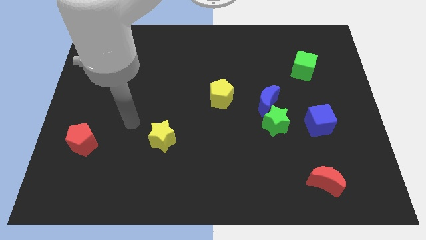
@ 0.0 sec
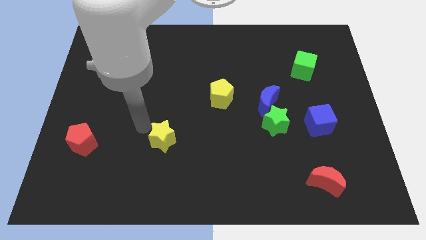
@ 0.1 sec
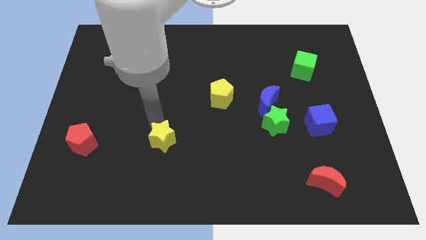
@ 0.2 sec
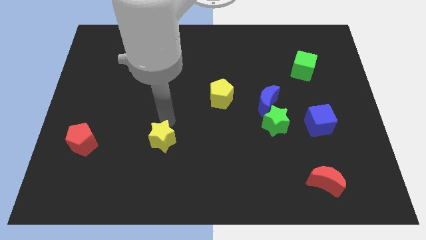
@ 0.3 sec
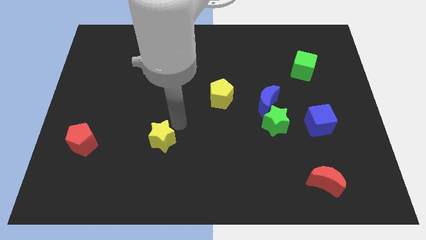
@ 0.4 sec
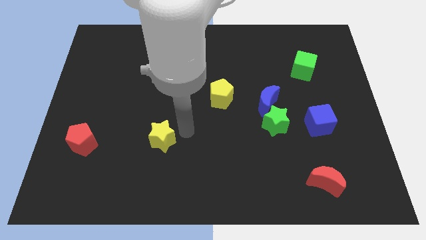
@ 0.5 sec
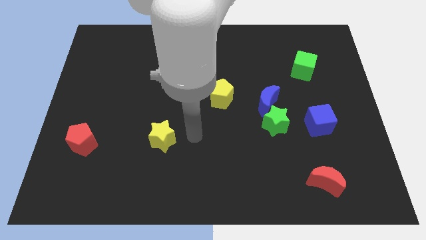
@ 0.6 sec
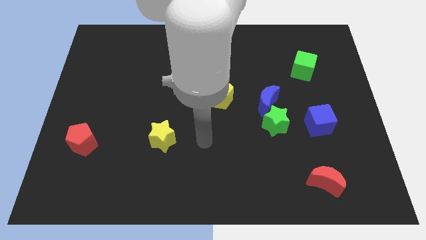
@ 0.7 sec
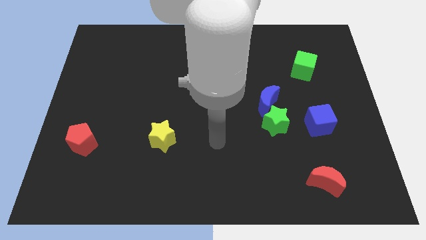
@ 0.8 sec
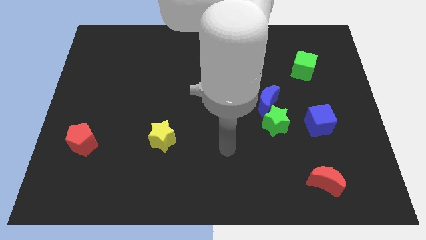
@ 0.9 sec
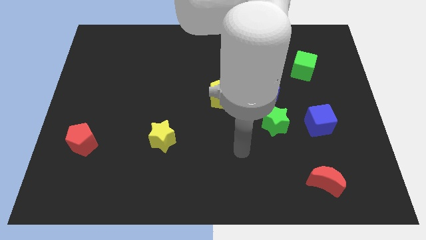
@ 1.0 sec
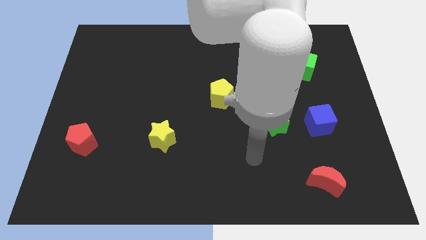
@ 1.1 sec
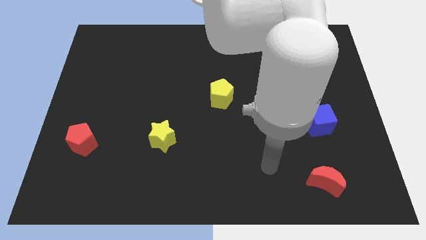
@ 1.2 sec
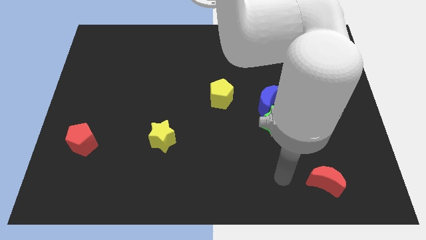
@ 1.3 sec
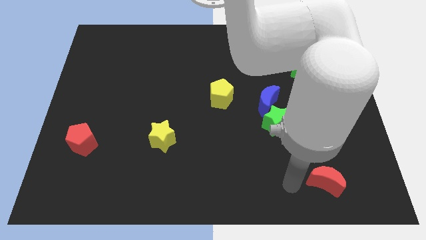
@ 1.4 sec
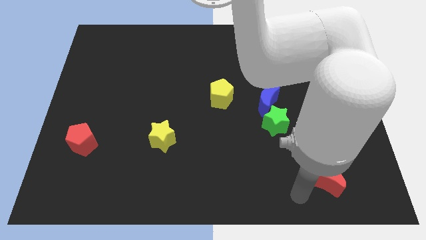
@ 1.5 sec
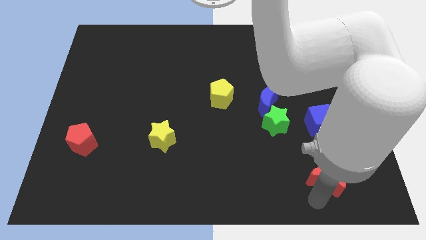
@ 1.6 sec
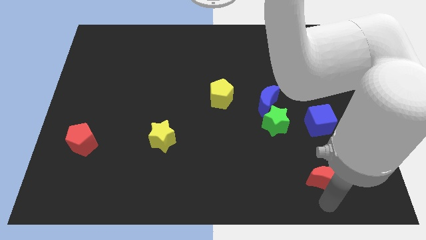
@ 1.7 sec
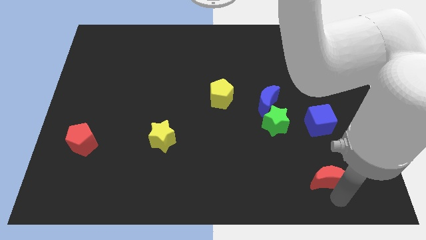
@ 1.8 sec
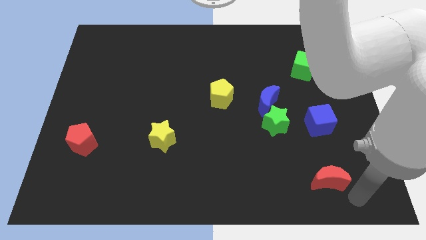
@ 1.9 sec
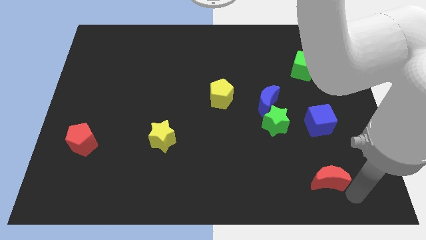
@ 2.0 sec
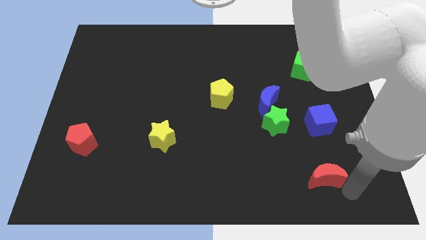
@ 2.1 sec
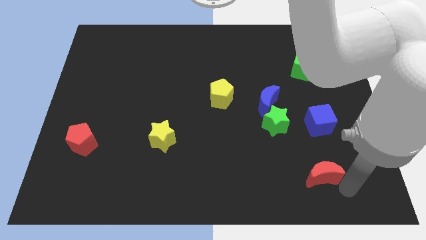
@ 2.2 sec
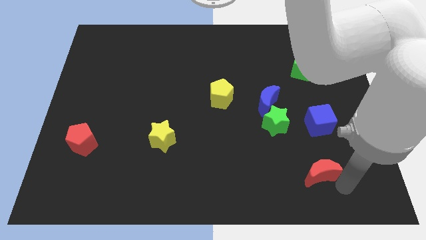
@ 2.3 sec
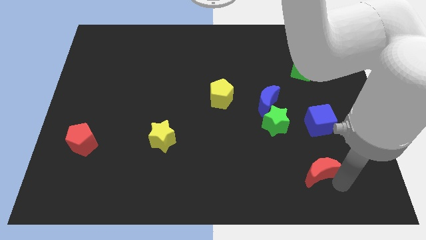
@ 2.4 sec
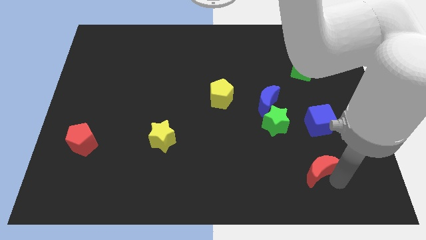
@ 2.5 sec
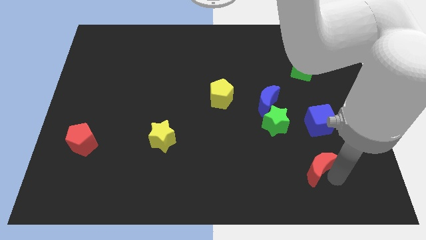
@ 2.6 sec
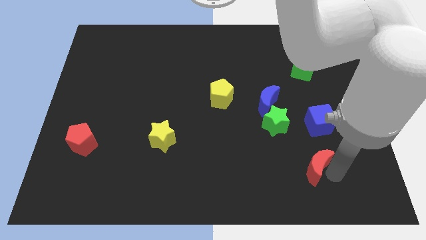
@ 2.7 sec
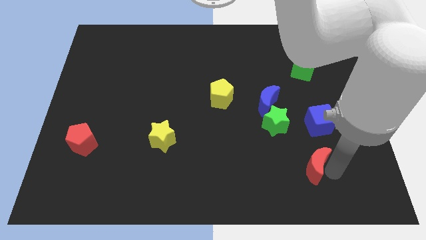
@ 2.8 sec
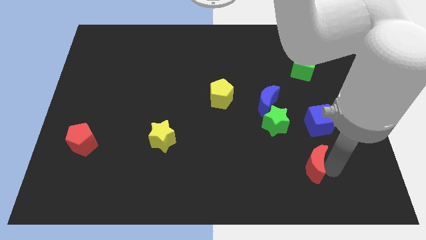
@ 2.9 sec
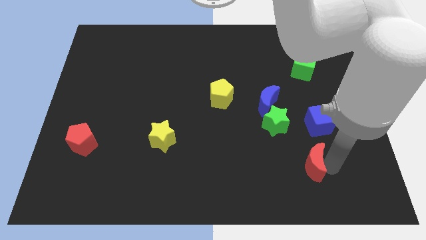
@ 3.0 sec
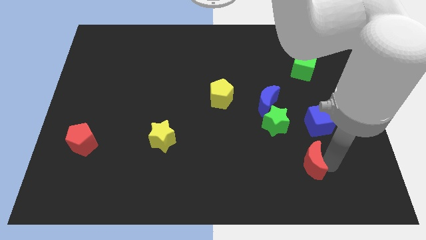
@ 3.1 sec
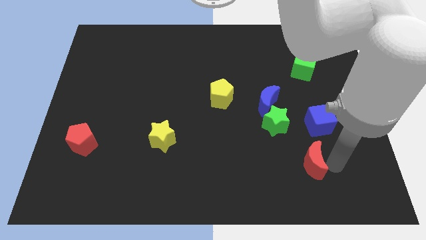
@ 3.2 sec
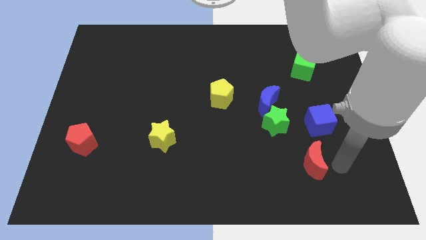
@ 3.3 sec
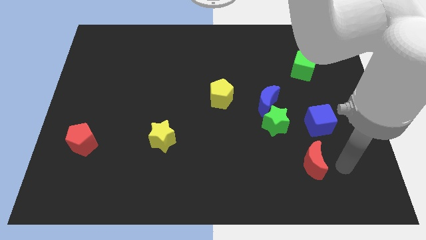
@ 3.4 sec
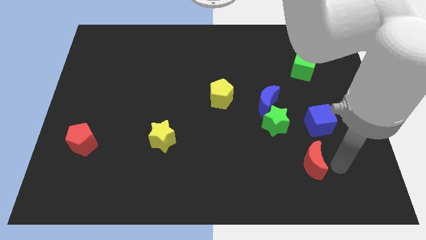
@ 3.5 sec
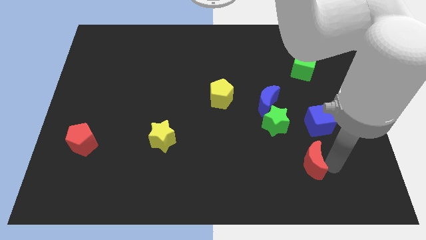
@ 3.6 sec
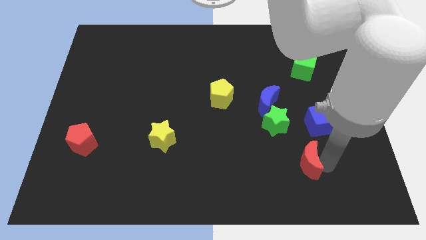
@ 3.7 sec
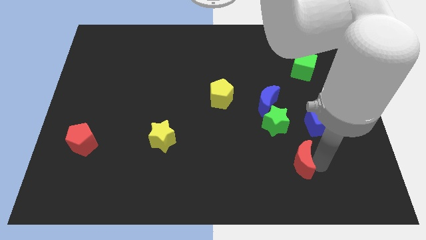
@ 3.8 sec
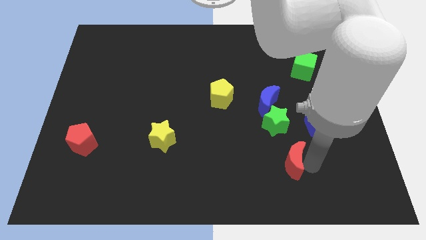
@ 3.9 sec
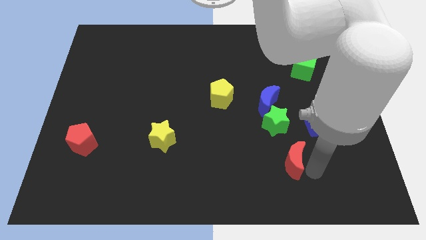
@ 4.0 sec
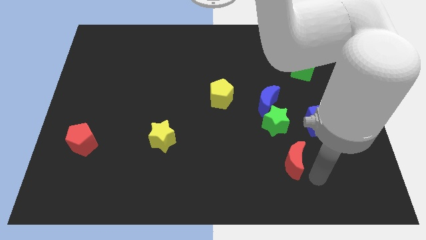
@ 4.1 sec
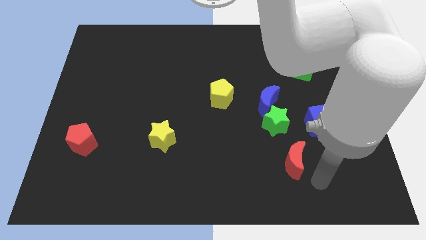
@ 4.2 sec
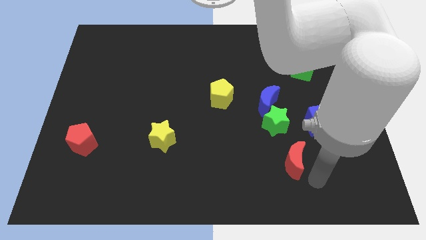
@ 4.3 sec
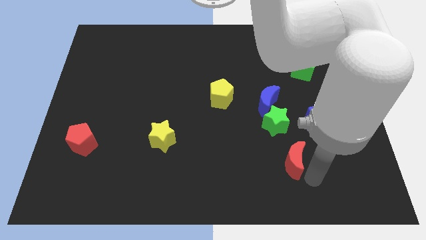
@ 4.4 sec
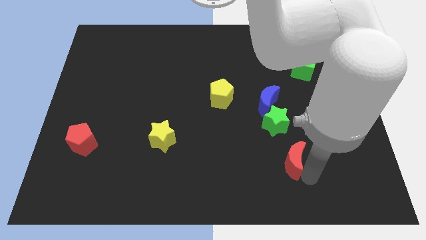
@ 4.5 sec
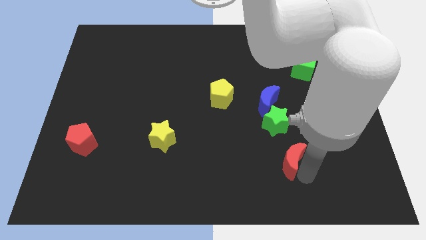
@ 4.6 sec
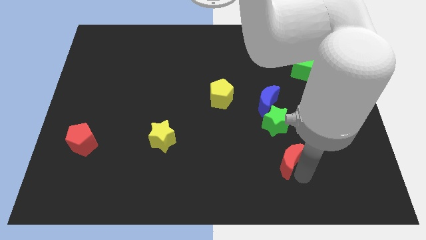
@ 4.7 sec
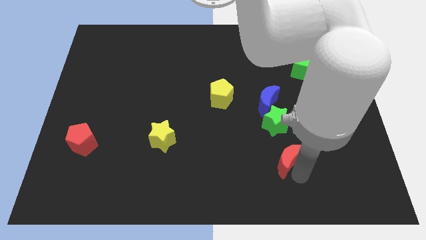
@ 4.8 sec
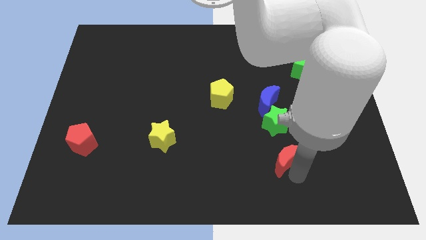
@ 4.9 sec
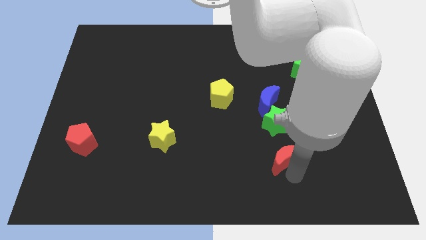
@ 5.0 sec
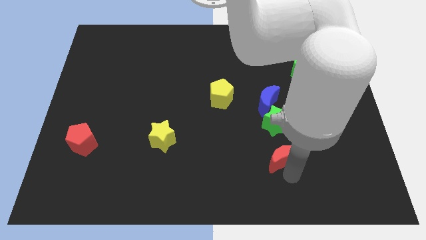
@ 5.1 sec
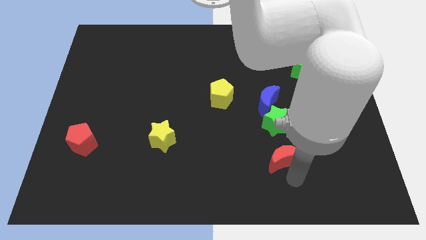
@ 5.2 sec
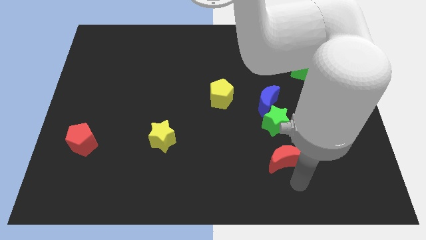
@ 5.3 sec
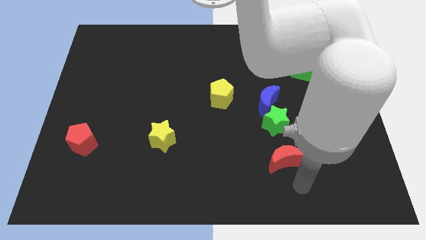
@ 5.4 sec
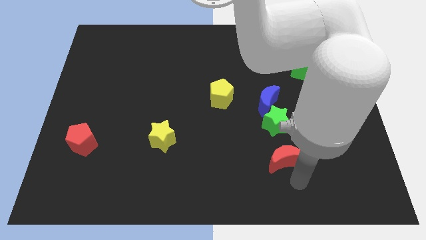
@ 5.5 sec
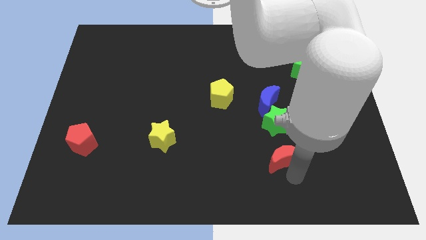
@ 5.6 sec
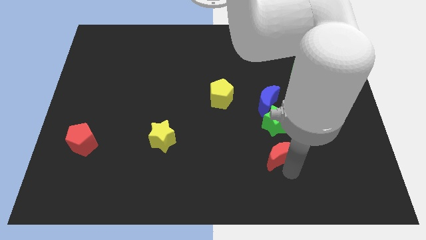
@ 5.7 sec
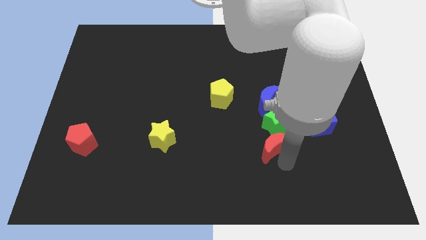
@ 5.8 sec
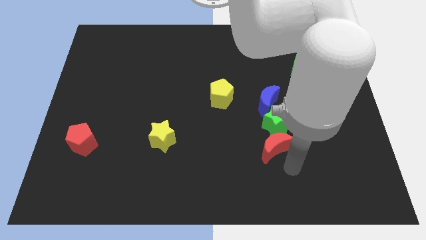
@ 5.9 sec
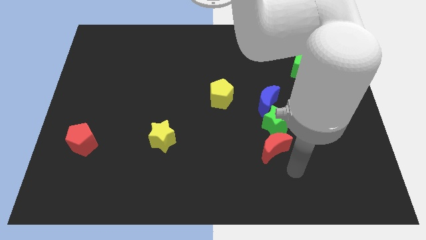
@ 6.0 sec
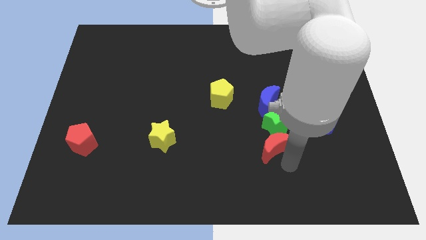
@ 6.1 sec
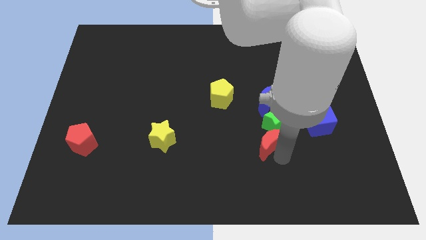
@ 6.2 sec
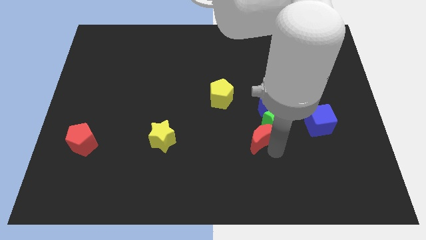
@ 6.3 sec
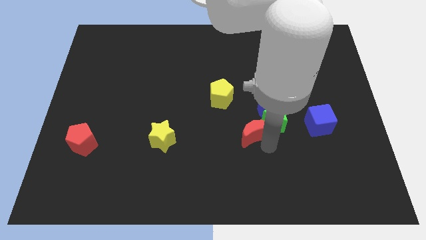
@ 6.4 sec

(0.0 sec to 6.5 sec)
push the red moon diagonally down and to the left of the blue moon
